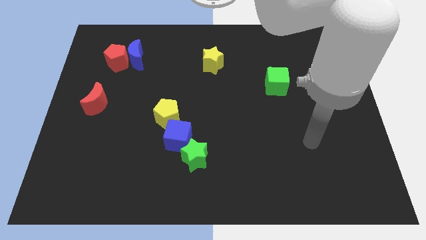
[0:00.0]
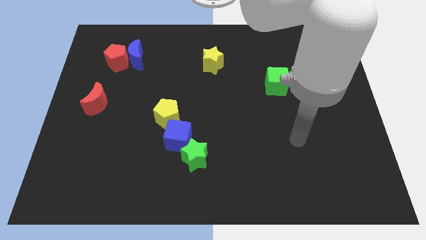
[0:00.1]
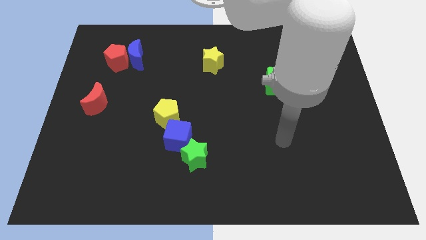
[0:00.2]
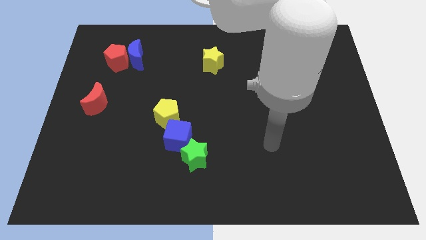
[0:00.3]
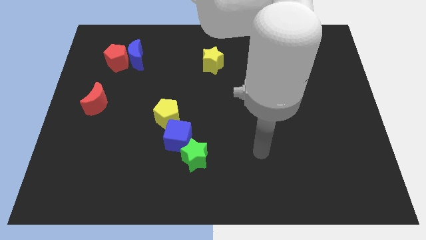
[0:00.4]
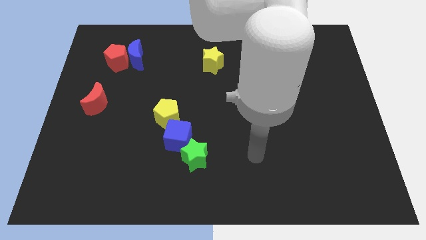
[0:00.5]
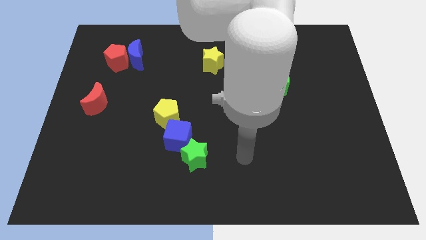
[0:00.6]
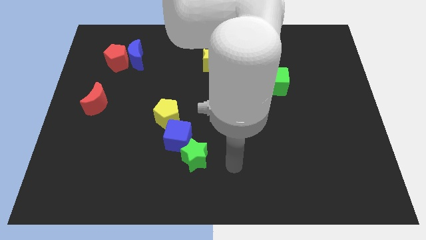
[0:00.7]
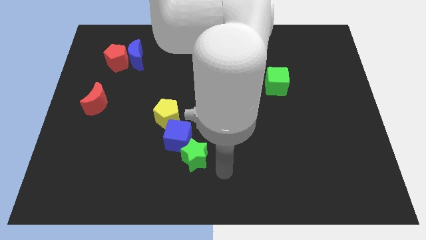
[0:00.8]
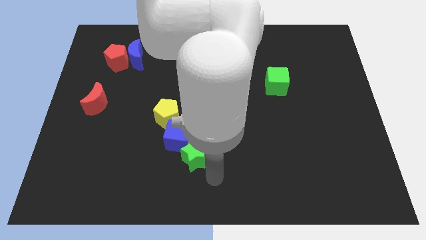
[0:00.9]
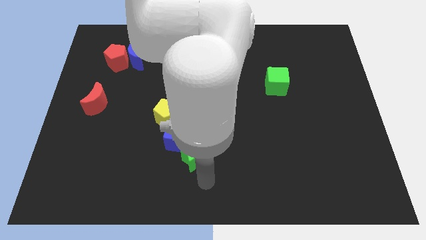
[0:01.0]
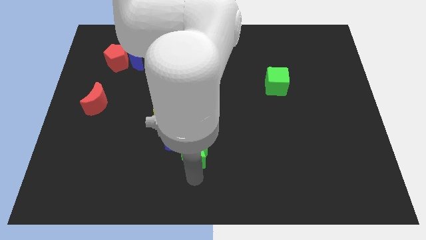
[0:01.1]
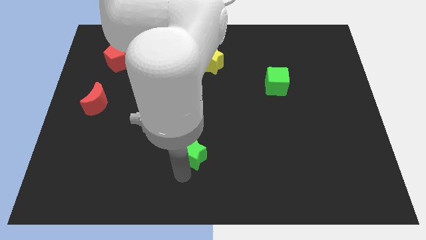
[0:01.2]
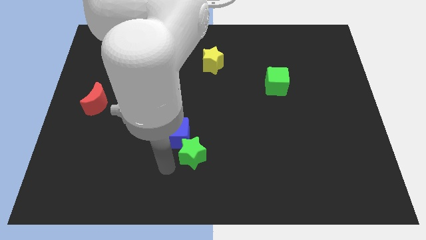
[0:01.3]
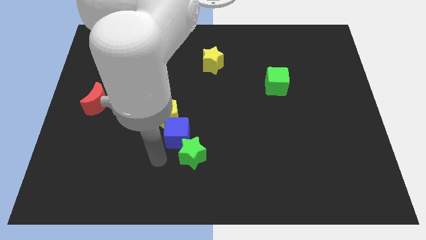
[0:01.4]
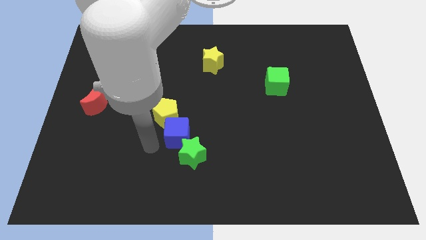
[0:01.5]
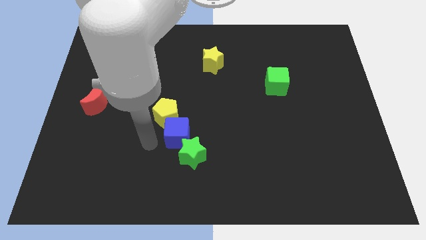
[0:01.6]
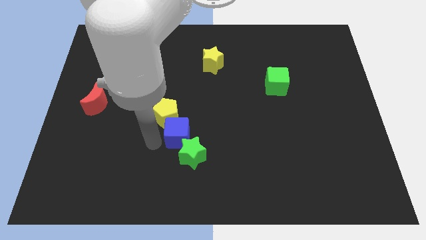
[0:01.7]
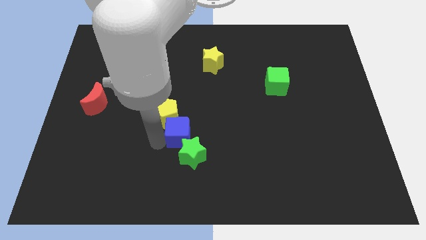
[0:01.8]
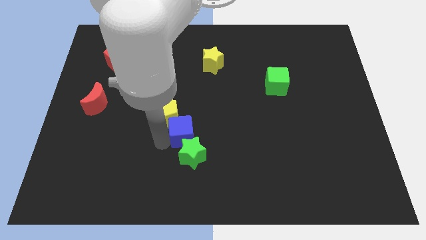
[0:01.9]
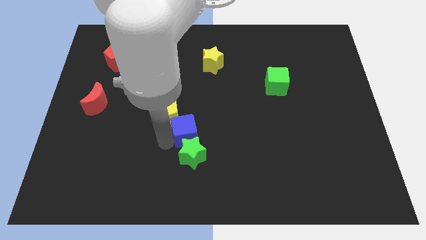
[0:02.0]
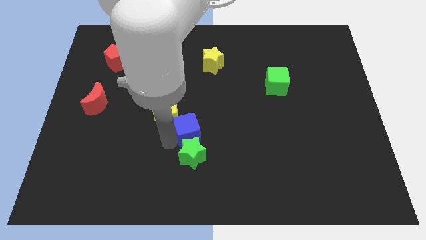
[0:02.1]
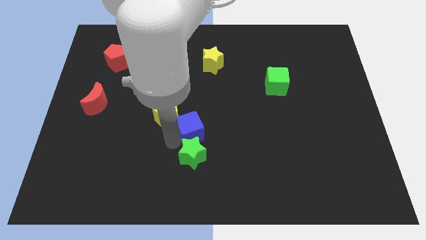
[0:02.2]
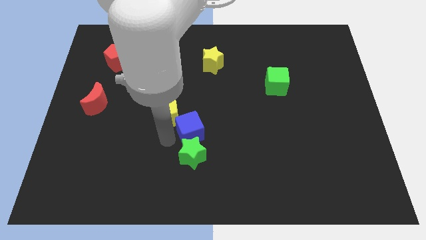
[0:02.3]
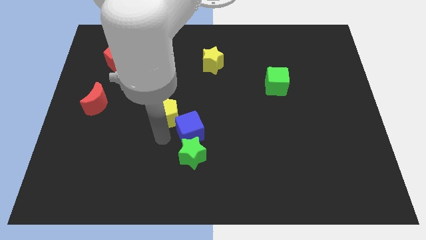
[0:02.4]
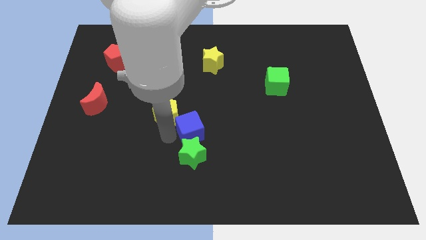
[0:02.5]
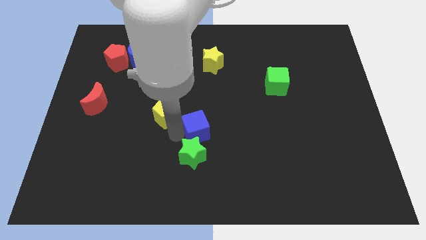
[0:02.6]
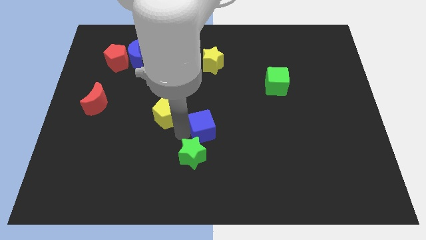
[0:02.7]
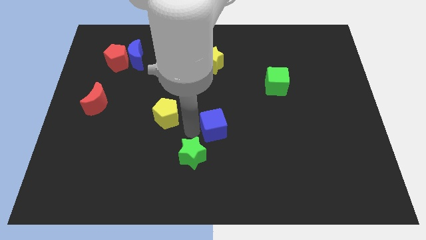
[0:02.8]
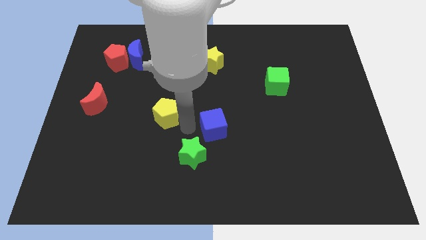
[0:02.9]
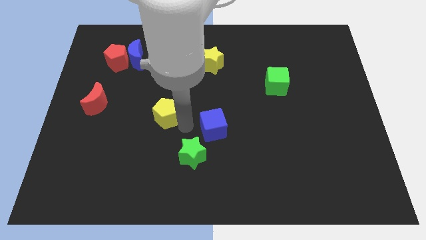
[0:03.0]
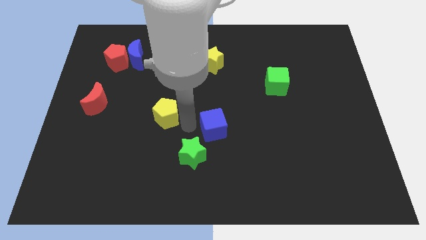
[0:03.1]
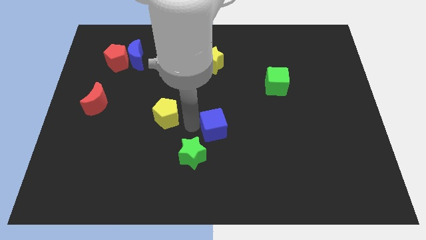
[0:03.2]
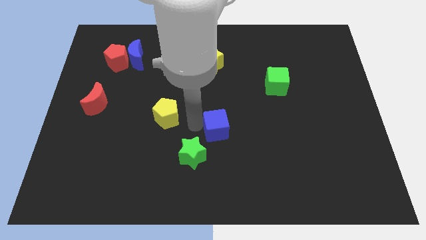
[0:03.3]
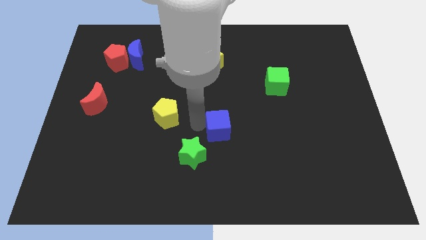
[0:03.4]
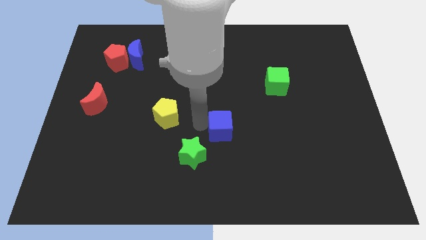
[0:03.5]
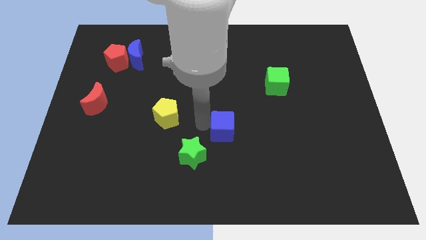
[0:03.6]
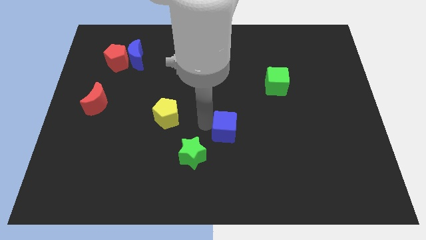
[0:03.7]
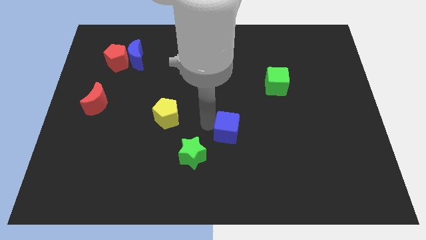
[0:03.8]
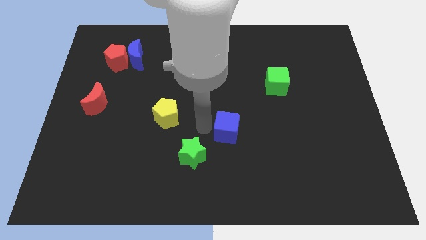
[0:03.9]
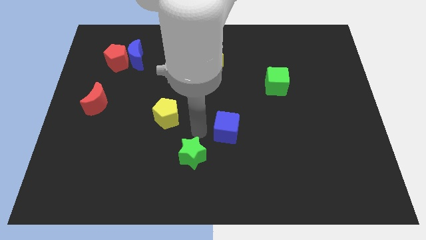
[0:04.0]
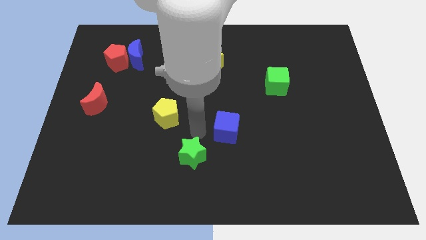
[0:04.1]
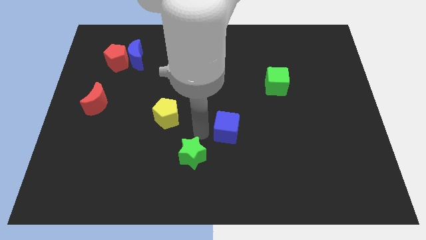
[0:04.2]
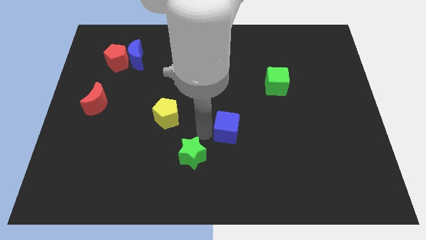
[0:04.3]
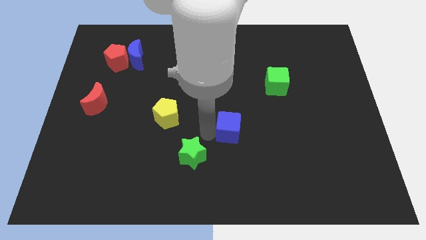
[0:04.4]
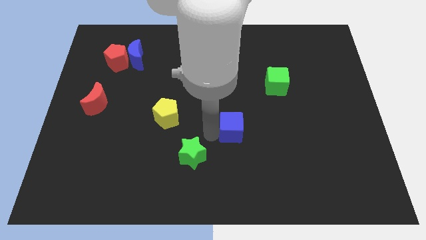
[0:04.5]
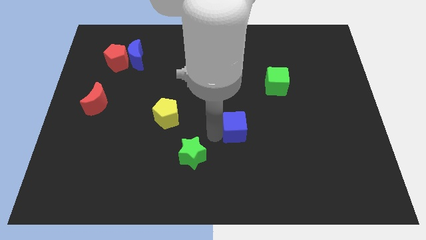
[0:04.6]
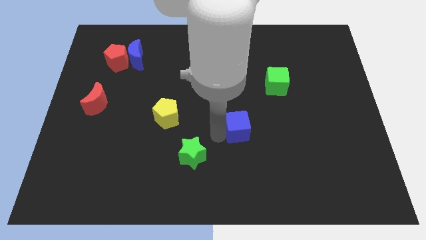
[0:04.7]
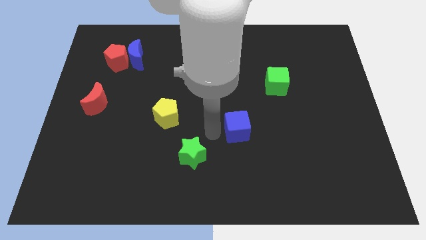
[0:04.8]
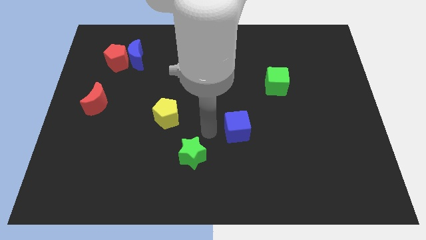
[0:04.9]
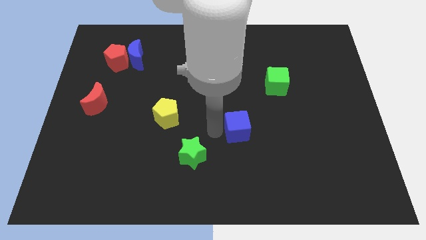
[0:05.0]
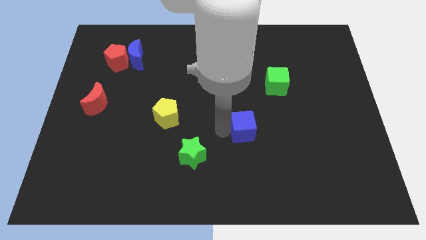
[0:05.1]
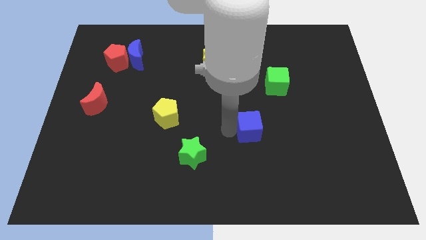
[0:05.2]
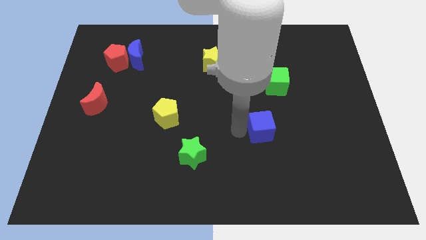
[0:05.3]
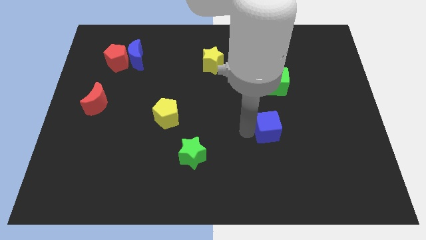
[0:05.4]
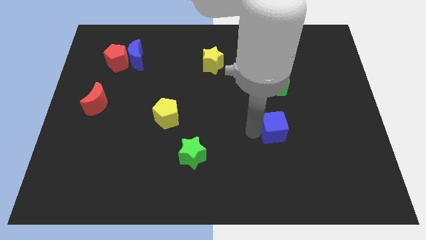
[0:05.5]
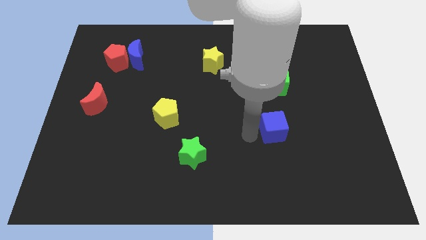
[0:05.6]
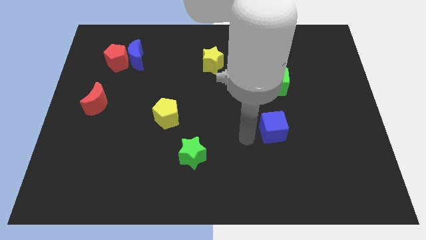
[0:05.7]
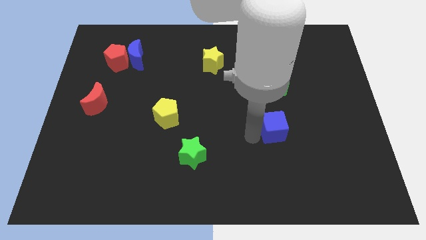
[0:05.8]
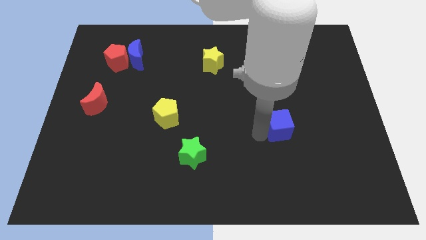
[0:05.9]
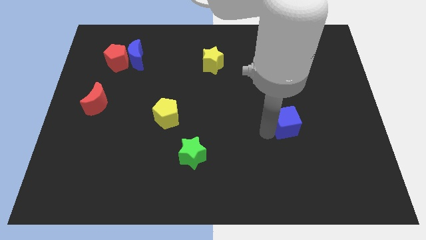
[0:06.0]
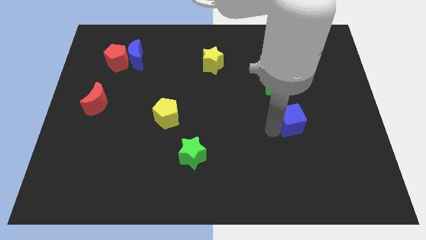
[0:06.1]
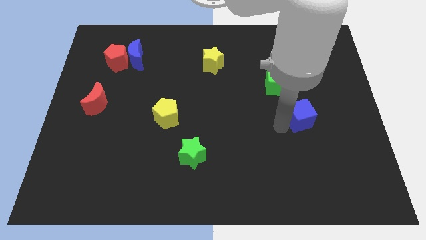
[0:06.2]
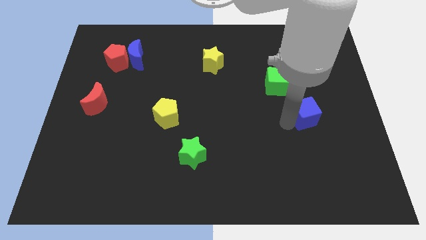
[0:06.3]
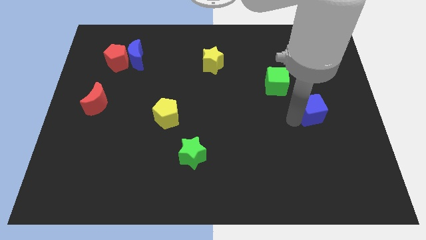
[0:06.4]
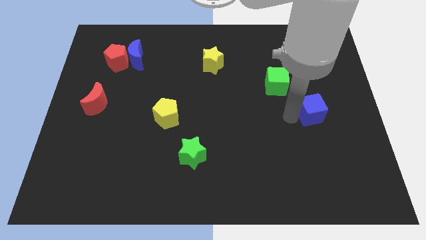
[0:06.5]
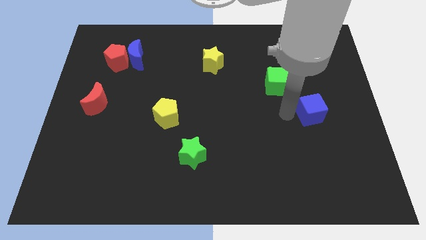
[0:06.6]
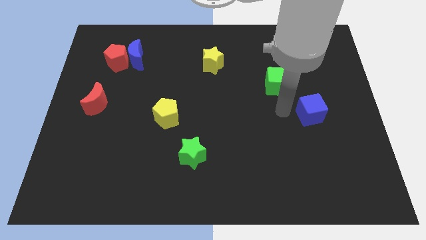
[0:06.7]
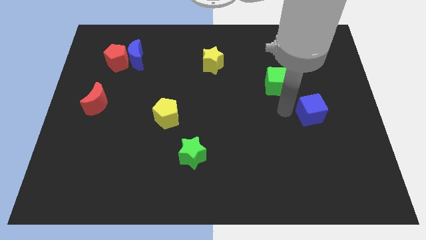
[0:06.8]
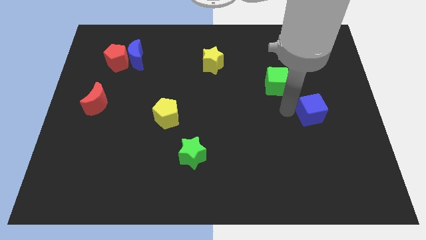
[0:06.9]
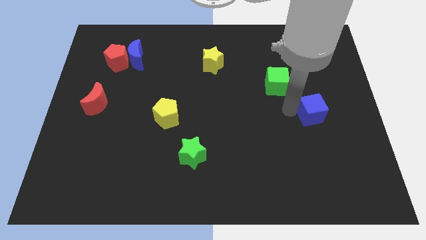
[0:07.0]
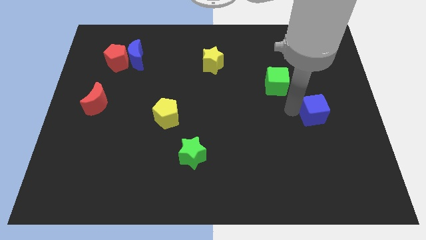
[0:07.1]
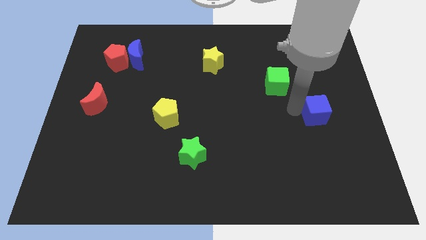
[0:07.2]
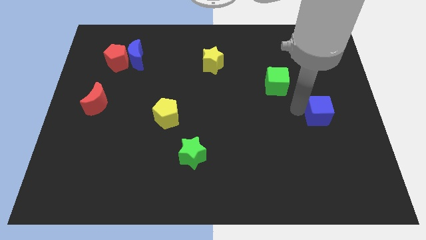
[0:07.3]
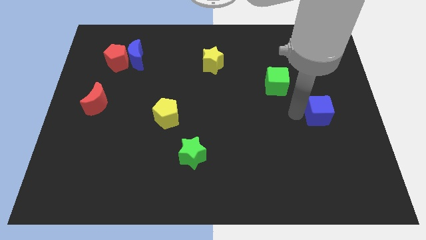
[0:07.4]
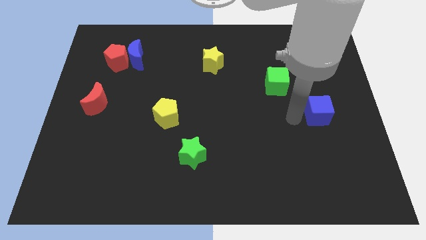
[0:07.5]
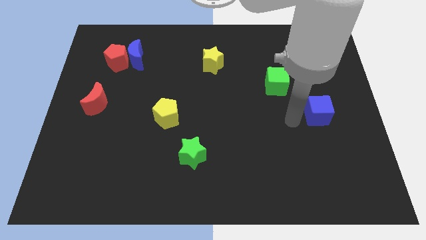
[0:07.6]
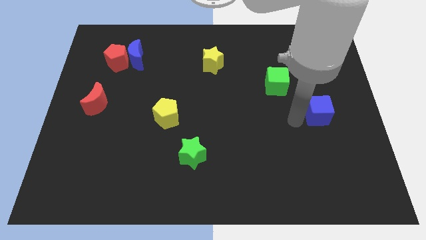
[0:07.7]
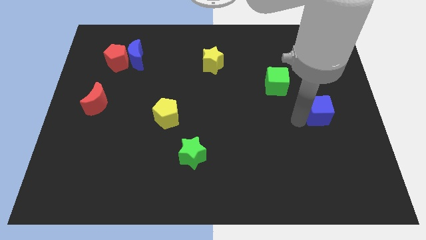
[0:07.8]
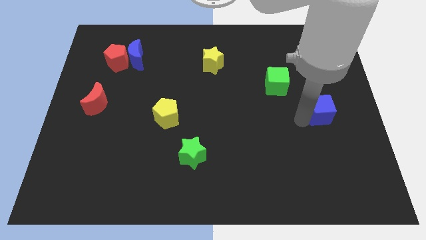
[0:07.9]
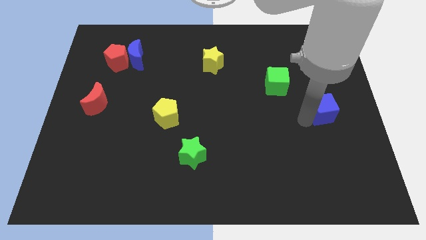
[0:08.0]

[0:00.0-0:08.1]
push the blue cube to the right side of the board
